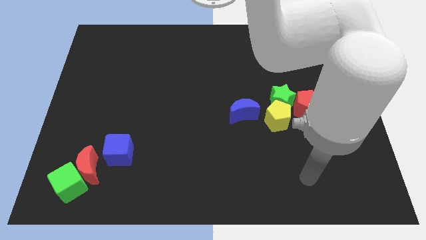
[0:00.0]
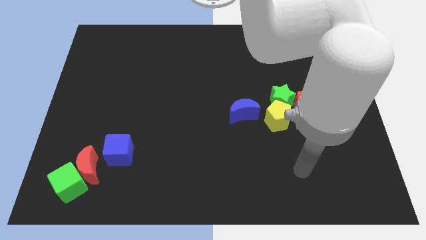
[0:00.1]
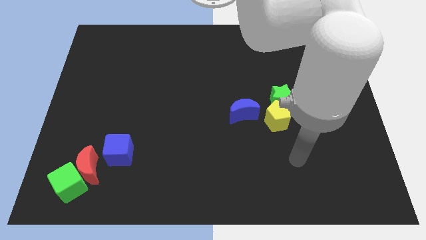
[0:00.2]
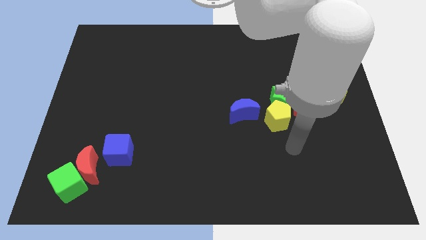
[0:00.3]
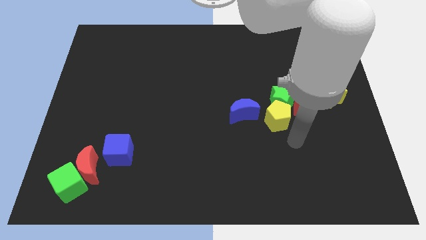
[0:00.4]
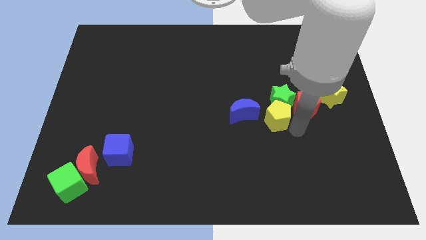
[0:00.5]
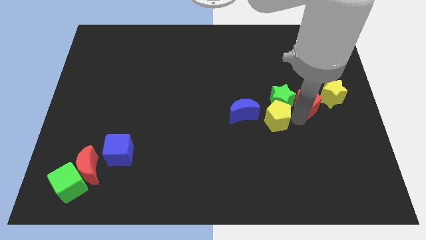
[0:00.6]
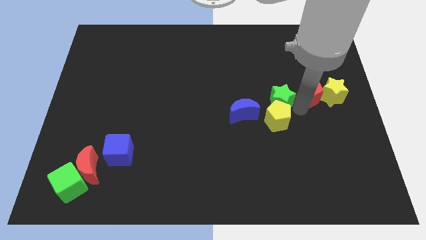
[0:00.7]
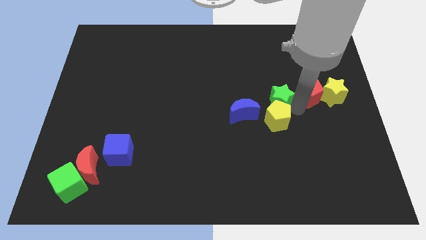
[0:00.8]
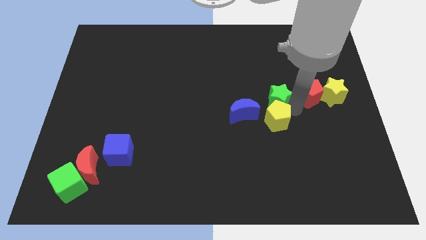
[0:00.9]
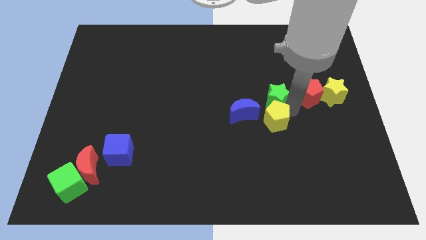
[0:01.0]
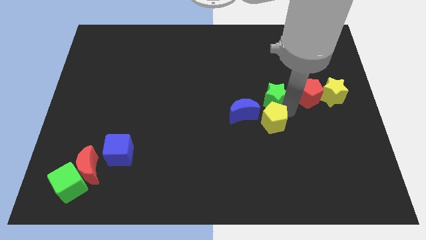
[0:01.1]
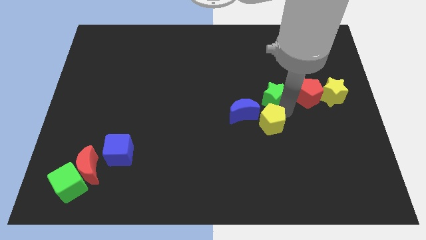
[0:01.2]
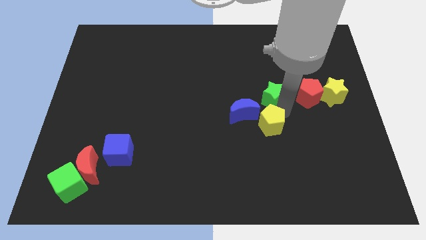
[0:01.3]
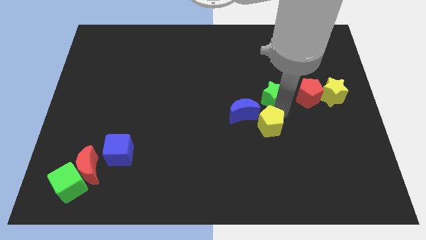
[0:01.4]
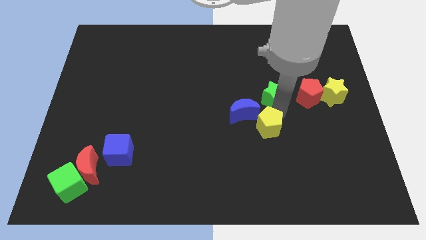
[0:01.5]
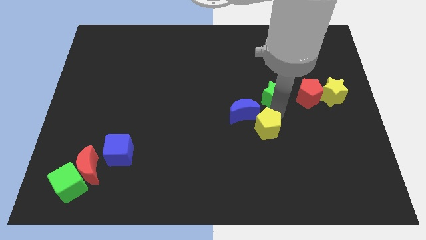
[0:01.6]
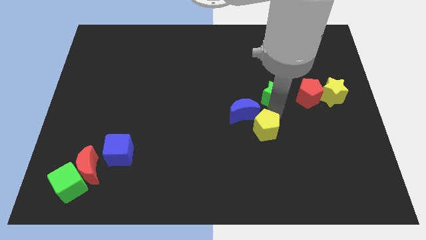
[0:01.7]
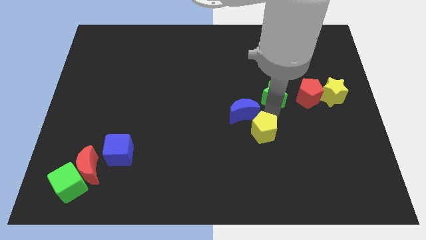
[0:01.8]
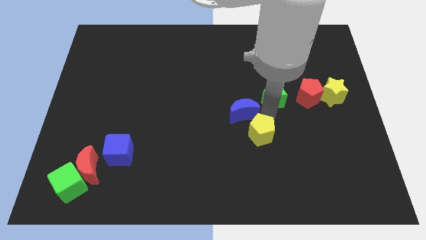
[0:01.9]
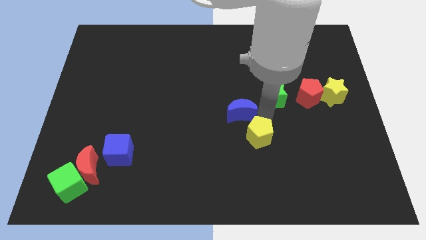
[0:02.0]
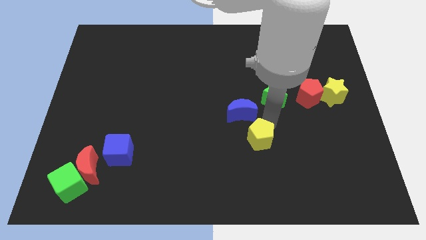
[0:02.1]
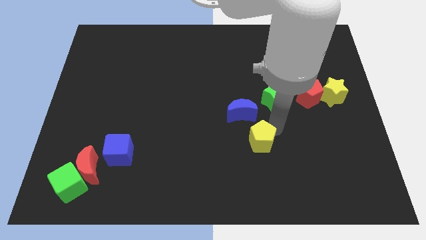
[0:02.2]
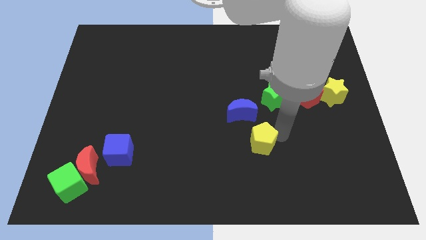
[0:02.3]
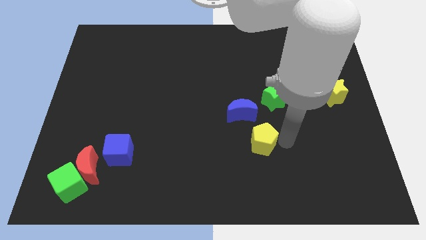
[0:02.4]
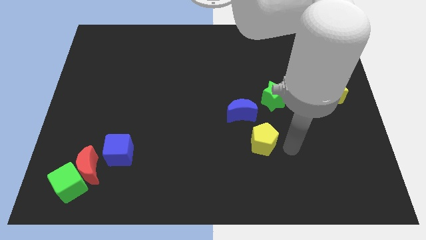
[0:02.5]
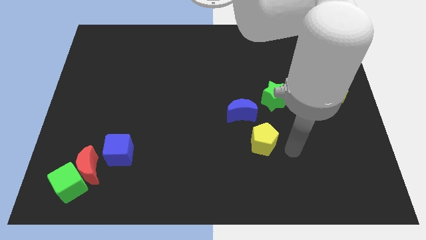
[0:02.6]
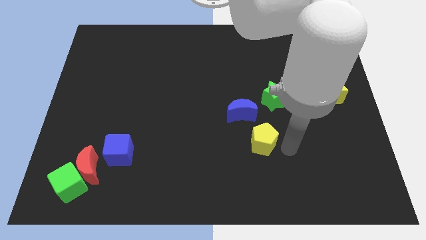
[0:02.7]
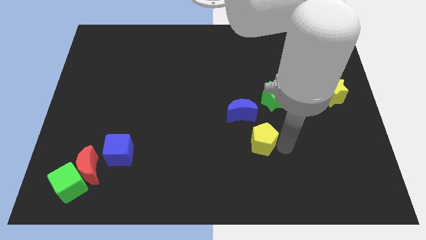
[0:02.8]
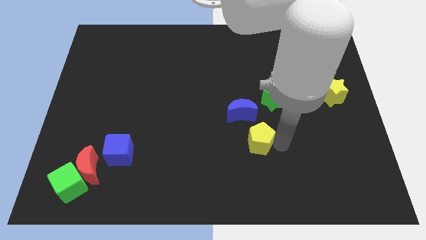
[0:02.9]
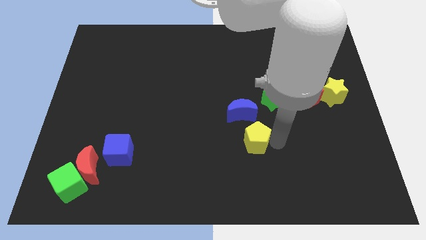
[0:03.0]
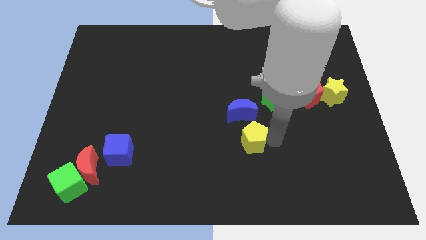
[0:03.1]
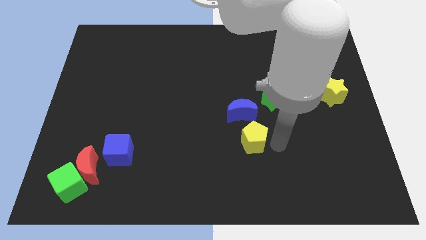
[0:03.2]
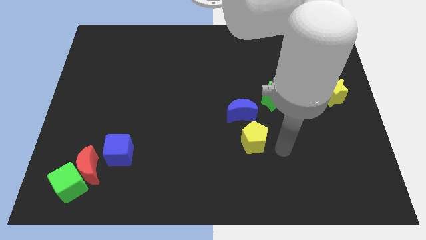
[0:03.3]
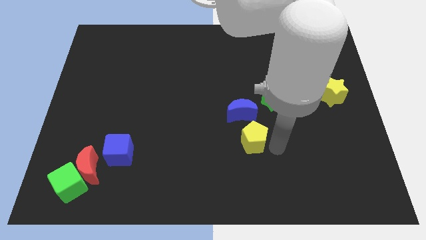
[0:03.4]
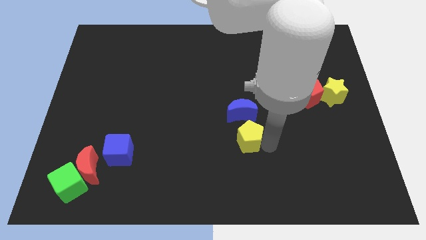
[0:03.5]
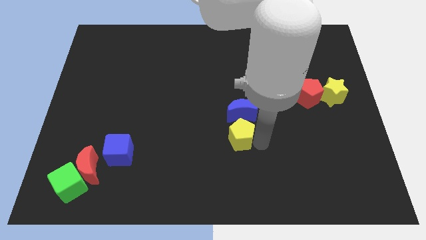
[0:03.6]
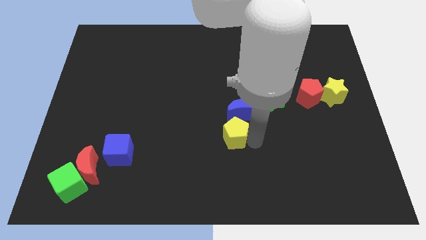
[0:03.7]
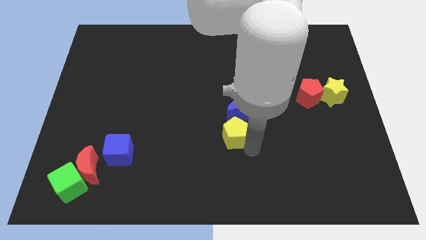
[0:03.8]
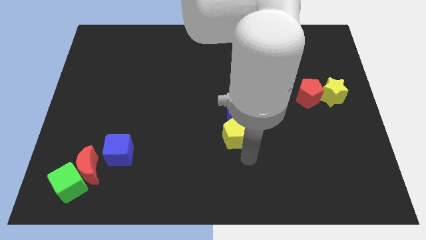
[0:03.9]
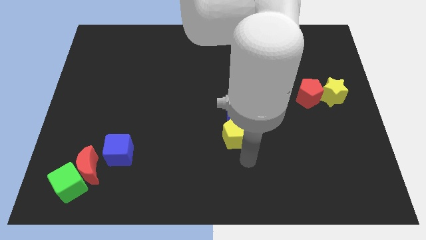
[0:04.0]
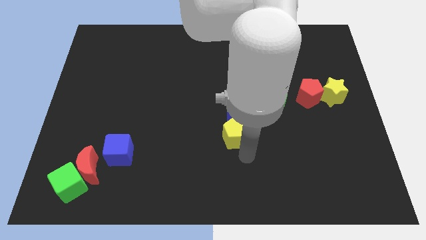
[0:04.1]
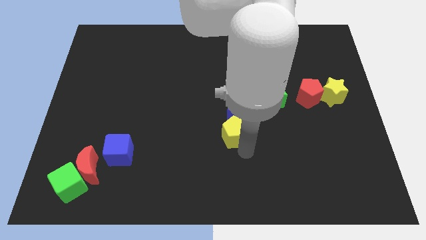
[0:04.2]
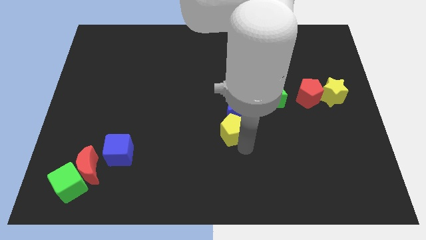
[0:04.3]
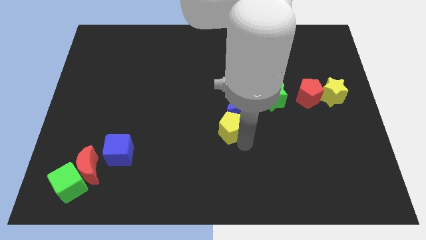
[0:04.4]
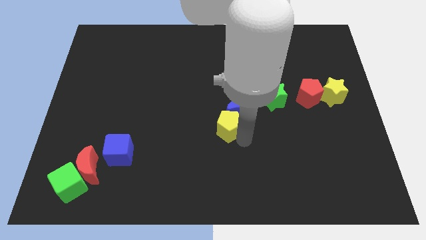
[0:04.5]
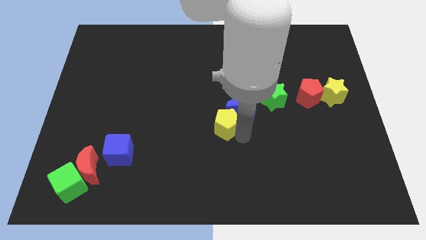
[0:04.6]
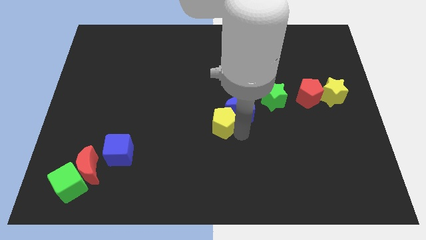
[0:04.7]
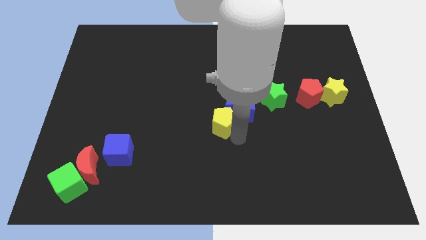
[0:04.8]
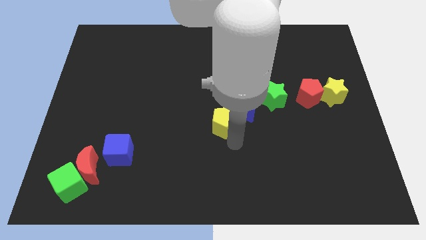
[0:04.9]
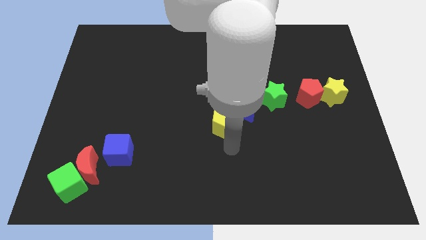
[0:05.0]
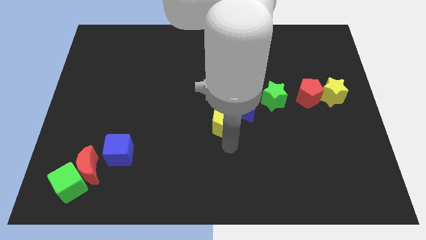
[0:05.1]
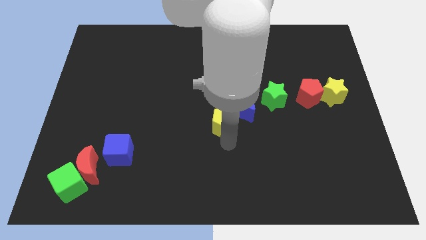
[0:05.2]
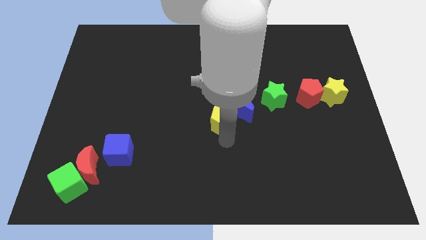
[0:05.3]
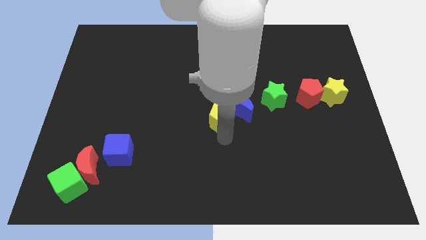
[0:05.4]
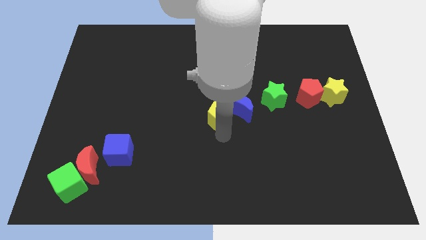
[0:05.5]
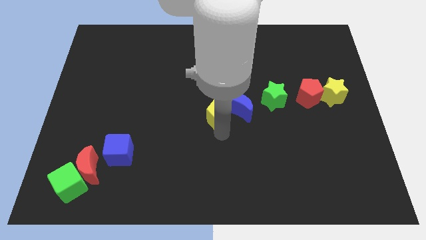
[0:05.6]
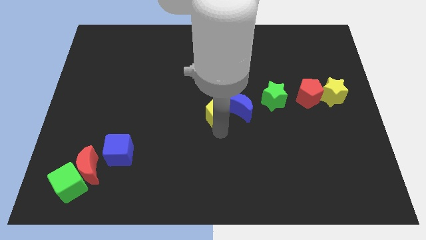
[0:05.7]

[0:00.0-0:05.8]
push the yellow pentagon upwards and then to the left somewhat

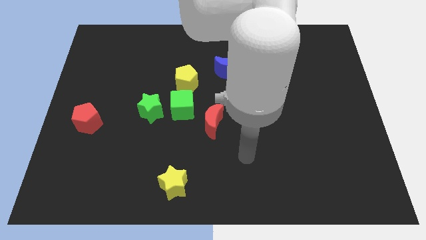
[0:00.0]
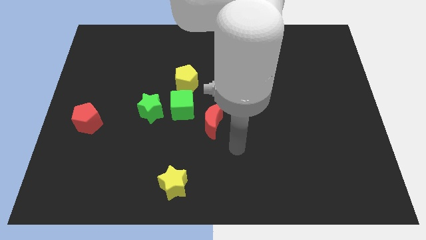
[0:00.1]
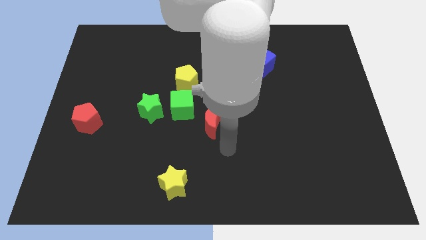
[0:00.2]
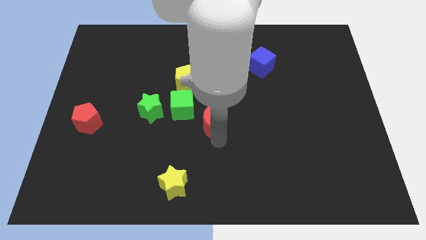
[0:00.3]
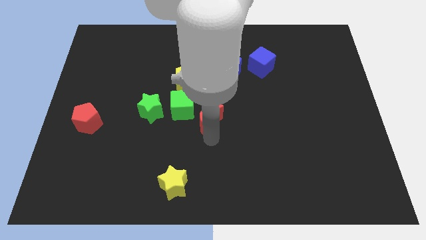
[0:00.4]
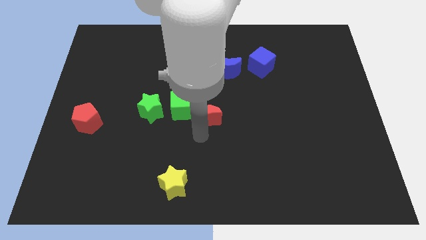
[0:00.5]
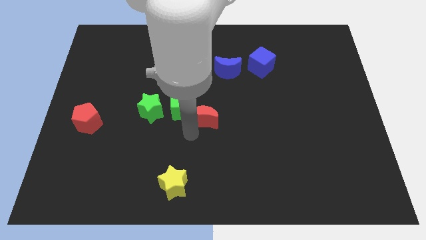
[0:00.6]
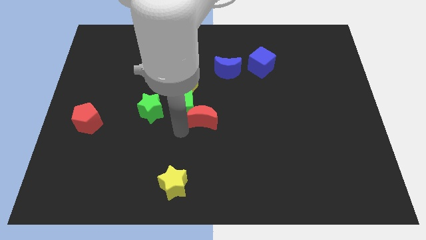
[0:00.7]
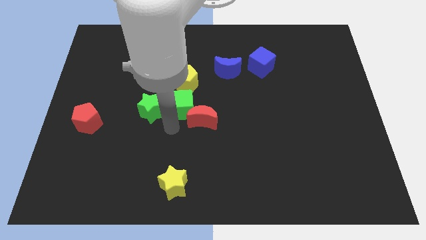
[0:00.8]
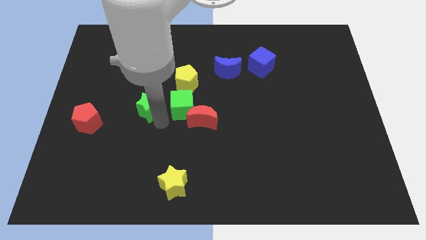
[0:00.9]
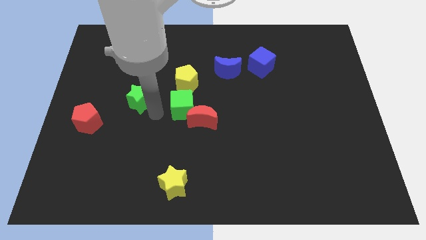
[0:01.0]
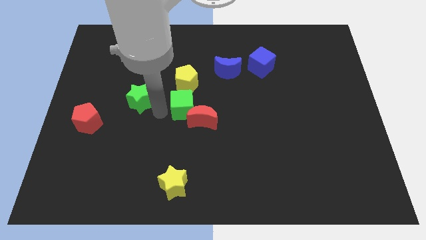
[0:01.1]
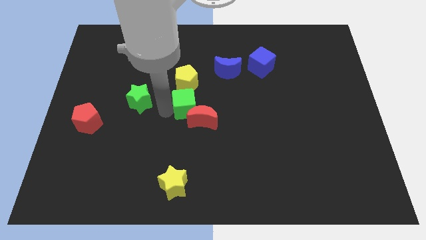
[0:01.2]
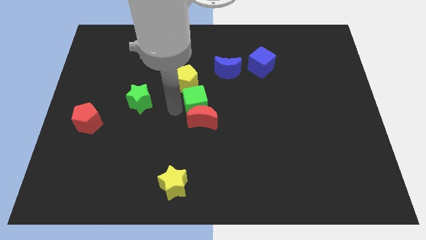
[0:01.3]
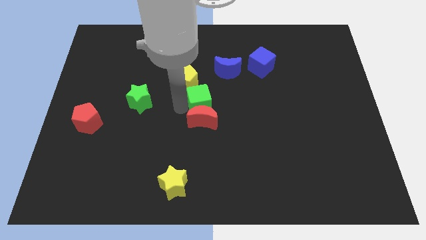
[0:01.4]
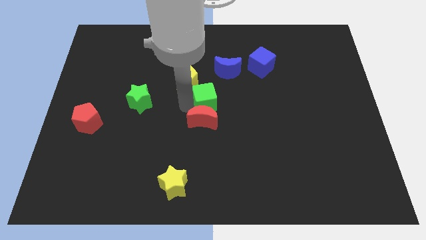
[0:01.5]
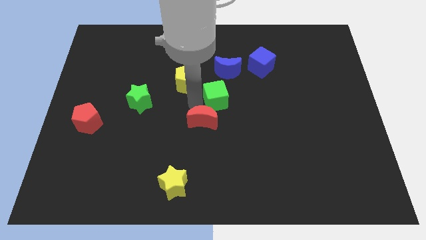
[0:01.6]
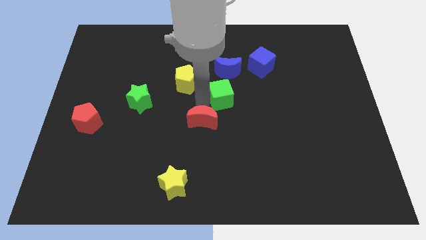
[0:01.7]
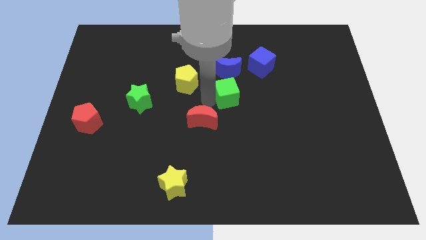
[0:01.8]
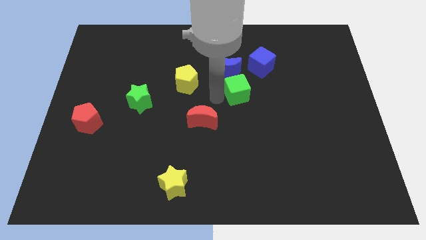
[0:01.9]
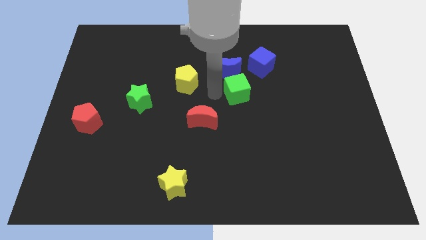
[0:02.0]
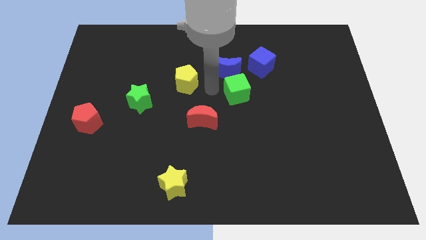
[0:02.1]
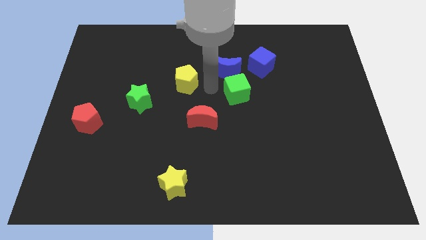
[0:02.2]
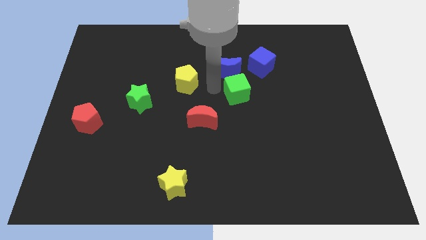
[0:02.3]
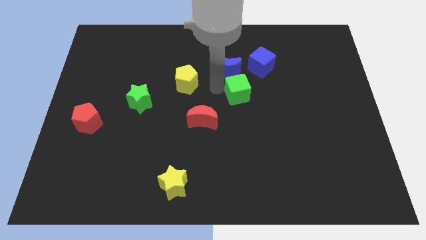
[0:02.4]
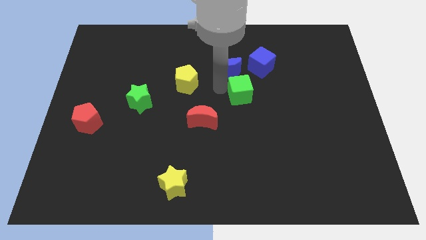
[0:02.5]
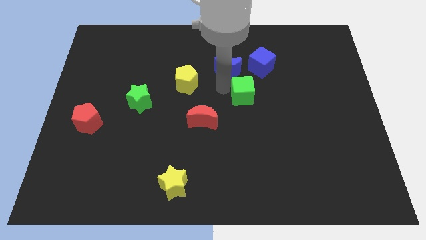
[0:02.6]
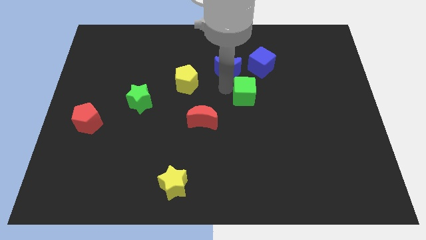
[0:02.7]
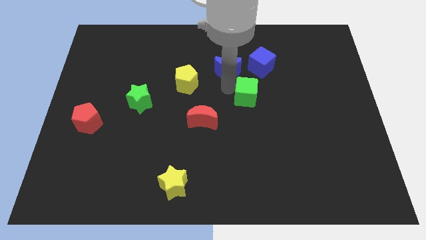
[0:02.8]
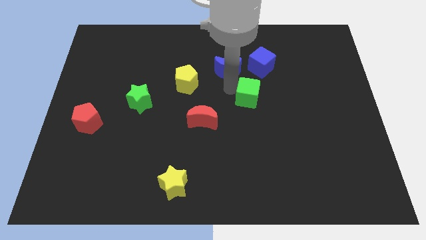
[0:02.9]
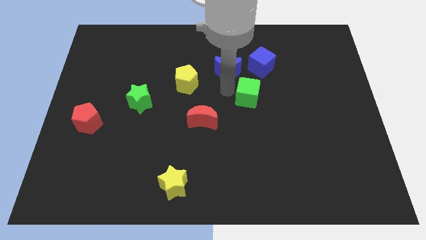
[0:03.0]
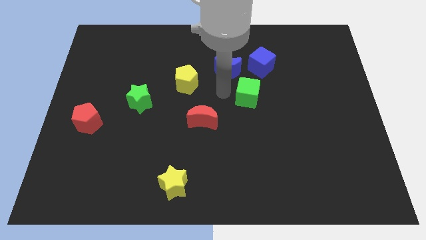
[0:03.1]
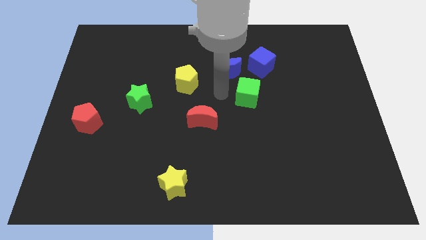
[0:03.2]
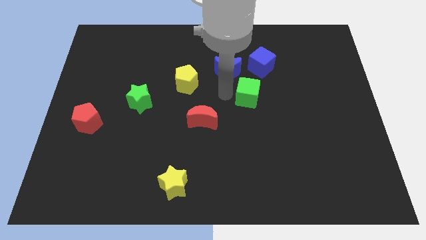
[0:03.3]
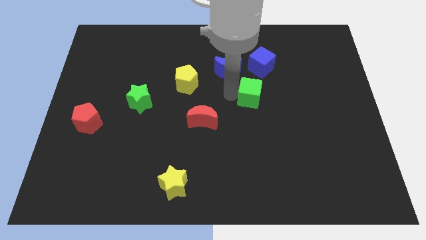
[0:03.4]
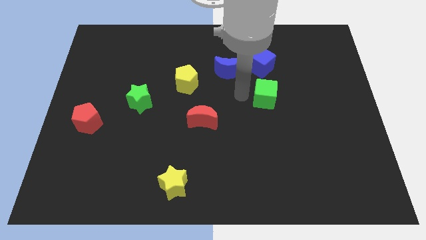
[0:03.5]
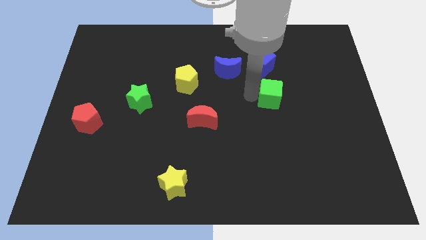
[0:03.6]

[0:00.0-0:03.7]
slide the green cube to the right
